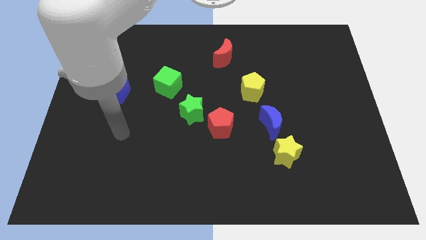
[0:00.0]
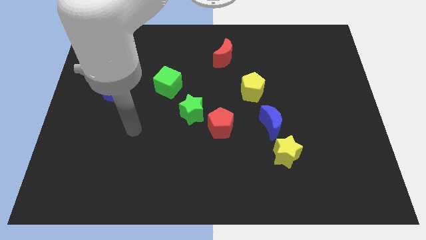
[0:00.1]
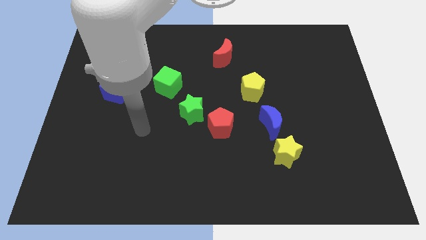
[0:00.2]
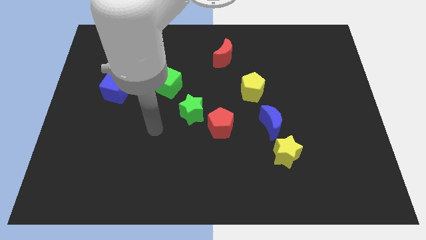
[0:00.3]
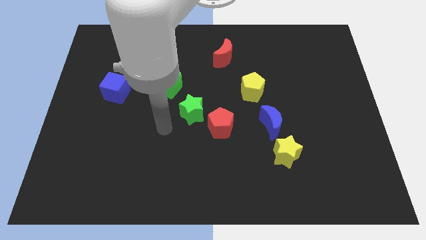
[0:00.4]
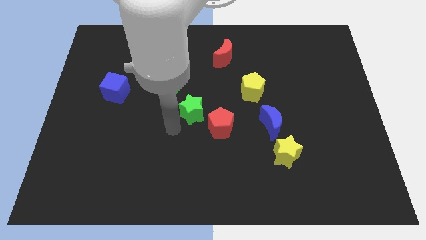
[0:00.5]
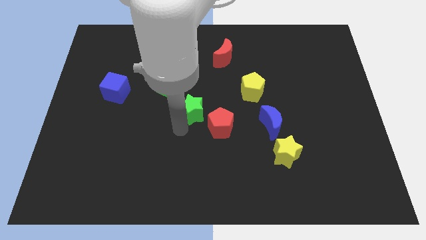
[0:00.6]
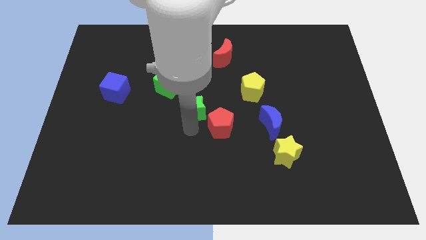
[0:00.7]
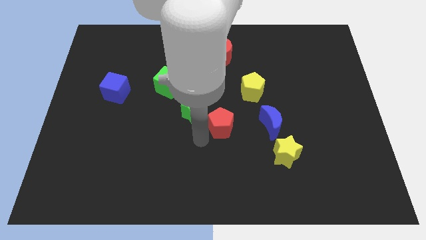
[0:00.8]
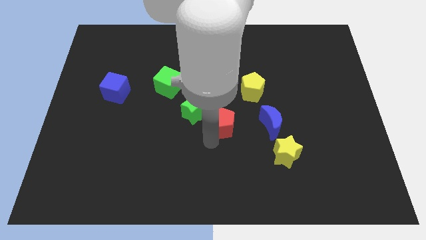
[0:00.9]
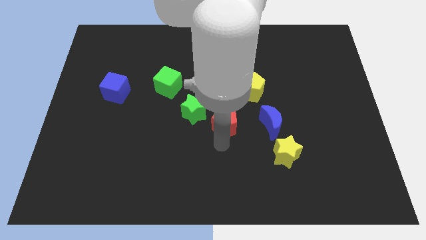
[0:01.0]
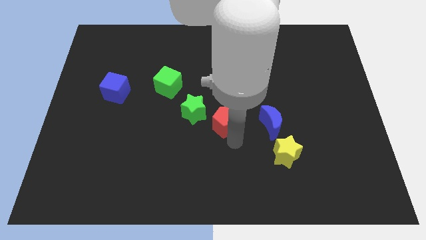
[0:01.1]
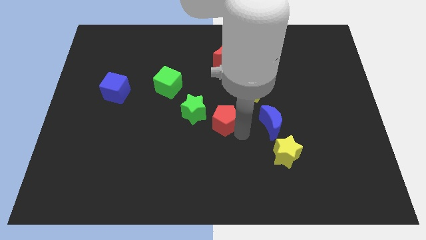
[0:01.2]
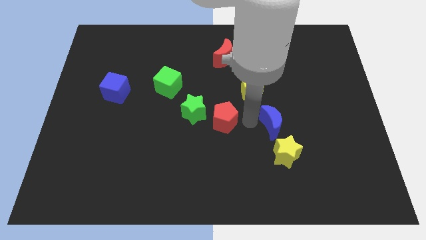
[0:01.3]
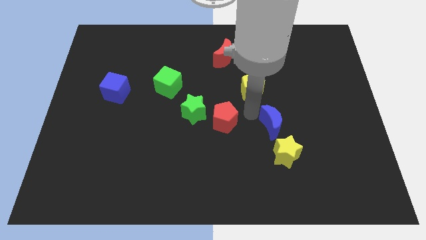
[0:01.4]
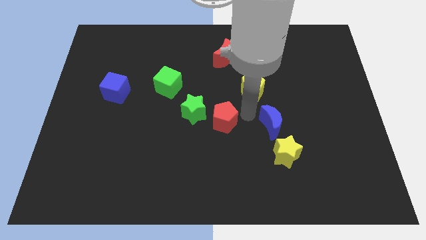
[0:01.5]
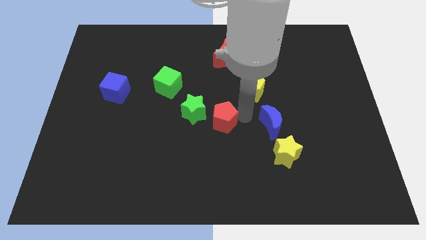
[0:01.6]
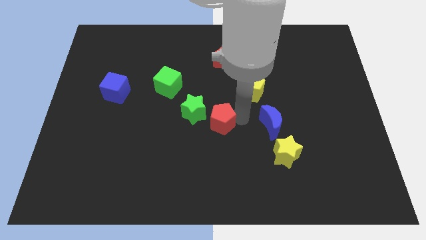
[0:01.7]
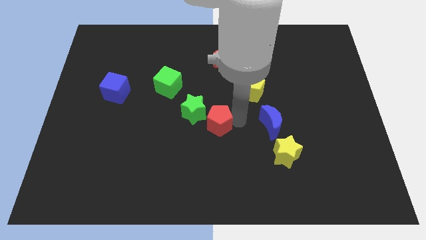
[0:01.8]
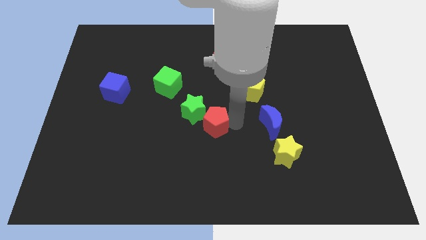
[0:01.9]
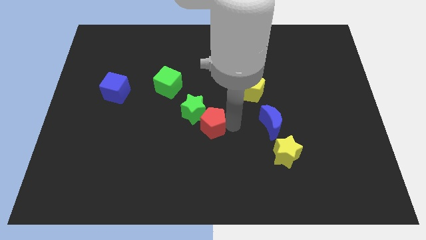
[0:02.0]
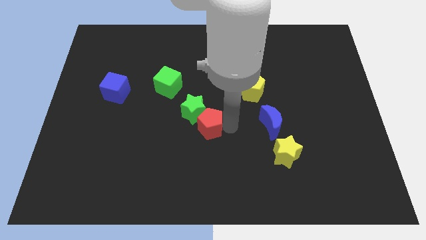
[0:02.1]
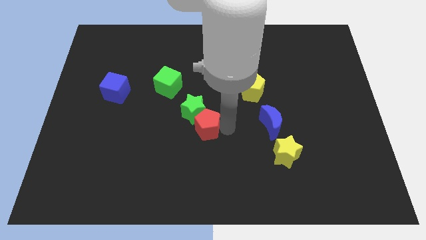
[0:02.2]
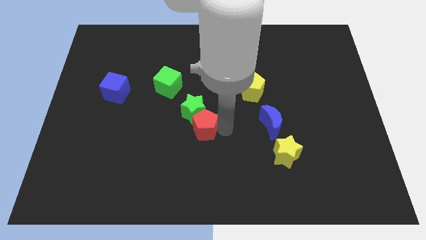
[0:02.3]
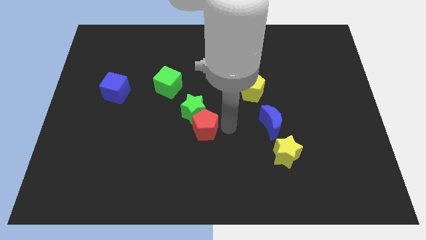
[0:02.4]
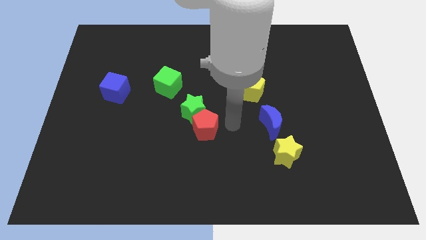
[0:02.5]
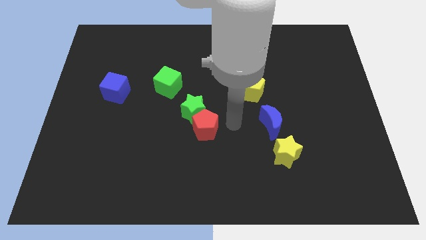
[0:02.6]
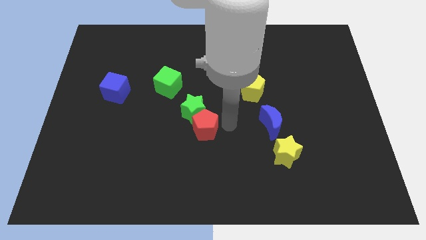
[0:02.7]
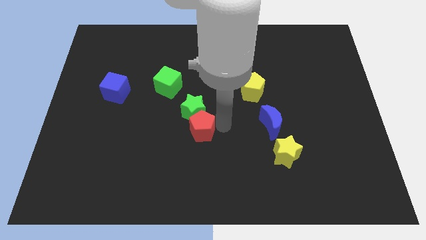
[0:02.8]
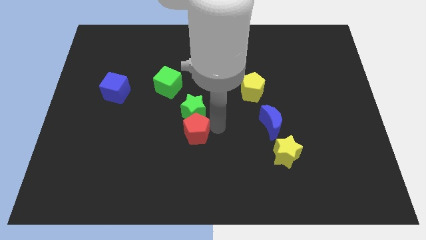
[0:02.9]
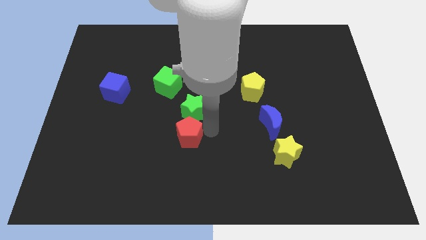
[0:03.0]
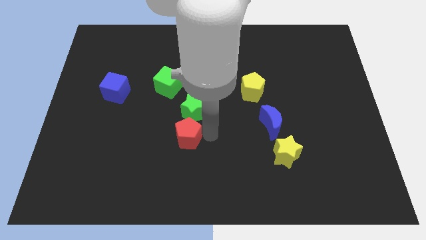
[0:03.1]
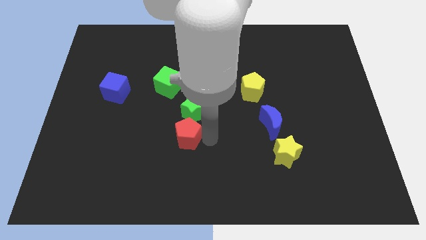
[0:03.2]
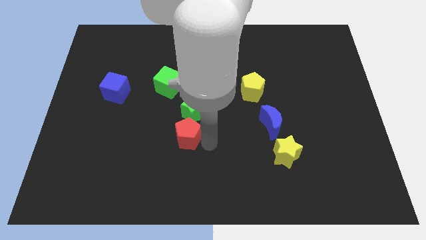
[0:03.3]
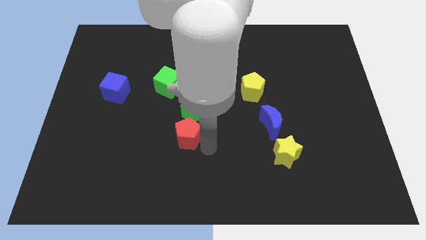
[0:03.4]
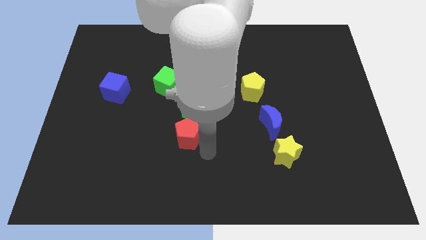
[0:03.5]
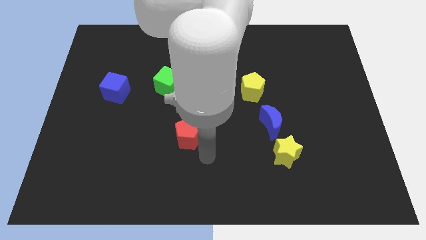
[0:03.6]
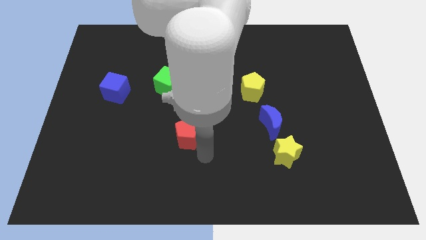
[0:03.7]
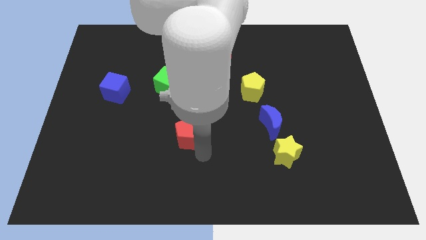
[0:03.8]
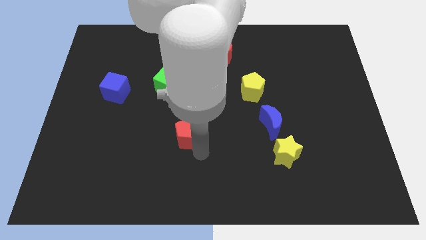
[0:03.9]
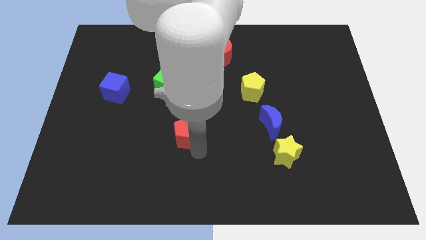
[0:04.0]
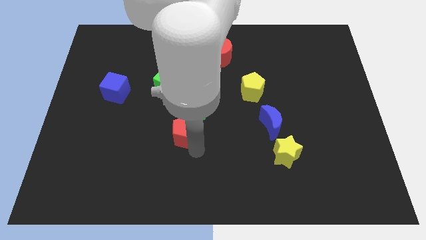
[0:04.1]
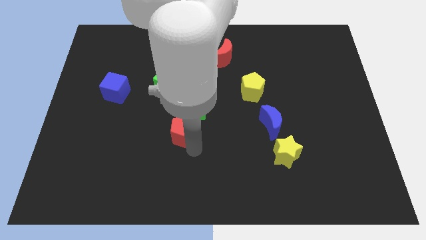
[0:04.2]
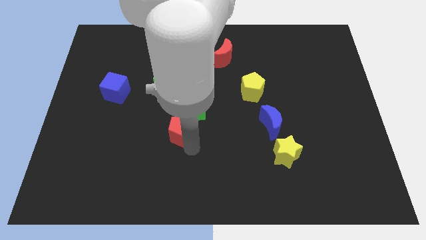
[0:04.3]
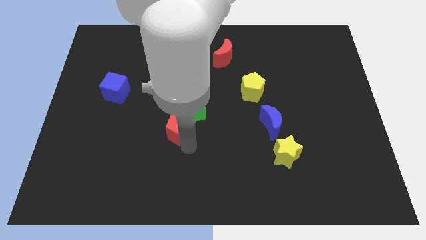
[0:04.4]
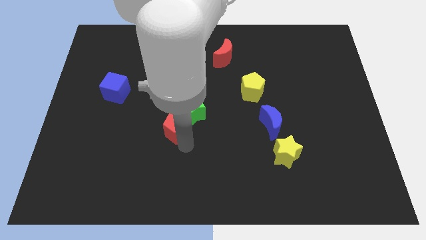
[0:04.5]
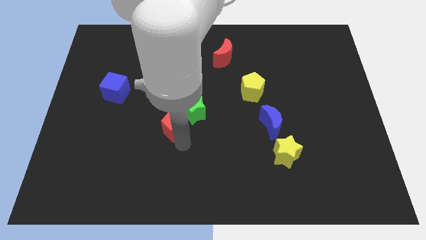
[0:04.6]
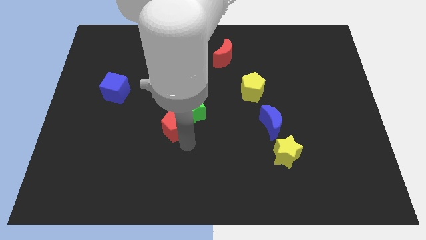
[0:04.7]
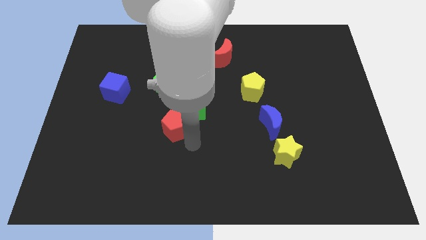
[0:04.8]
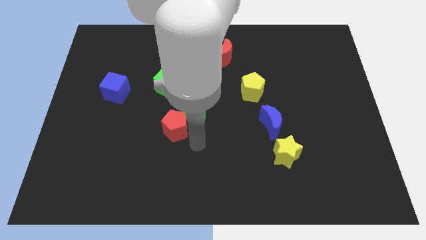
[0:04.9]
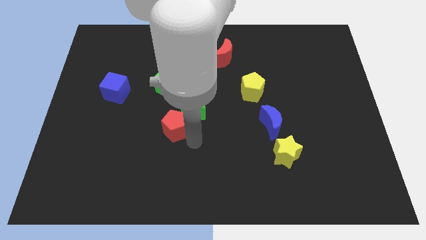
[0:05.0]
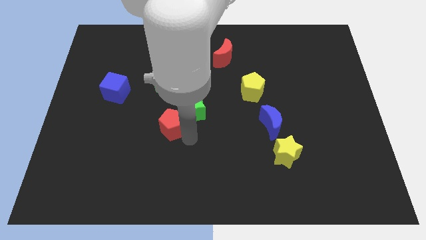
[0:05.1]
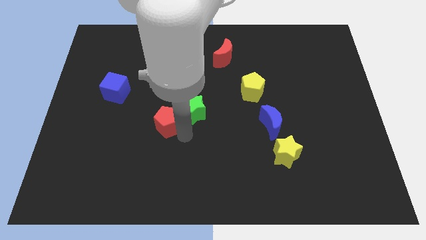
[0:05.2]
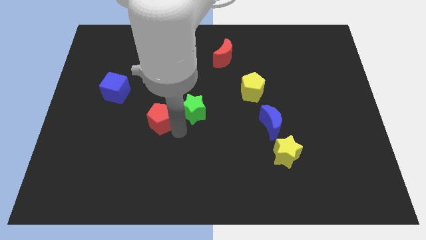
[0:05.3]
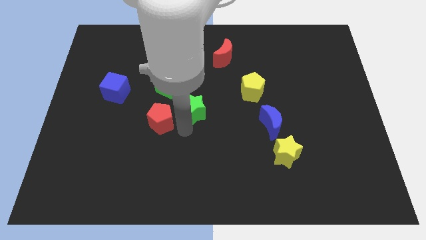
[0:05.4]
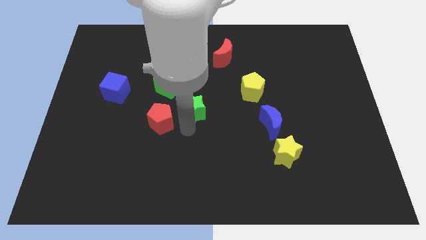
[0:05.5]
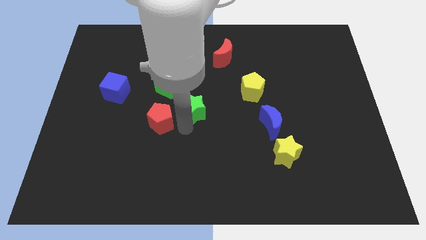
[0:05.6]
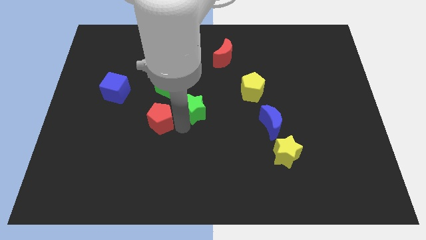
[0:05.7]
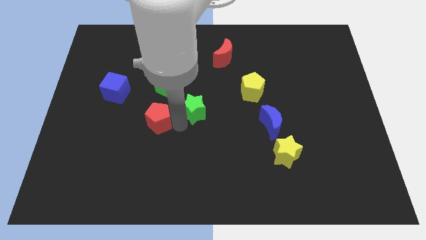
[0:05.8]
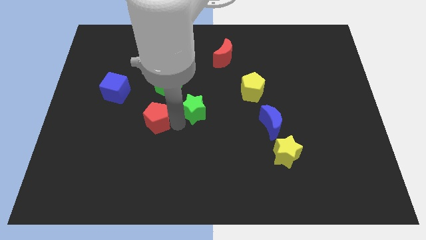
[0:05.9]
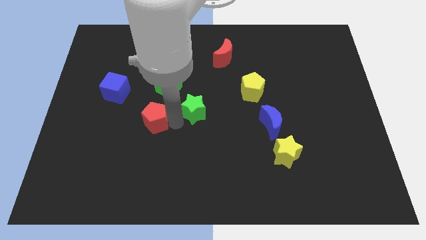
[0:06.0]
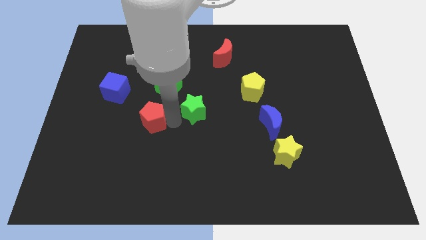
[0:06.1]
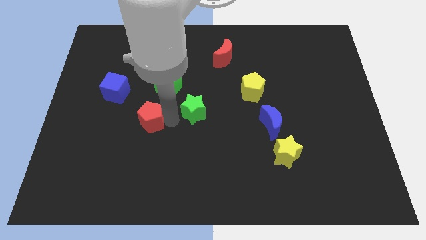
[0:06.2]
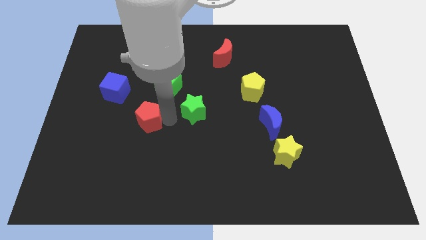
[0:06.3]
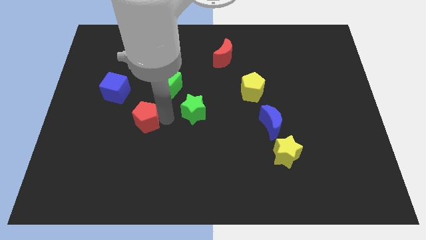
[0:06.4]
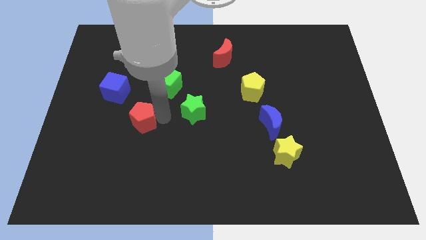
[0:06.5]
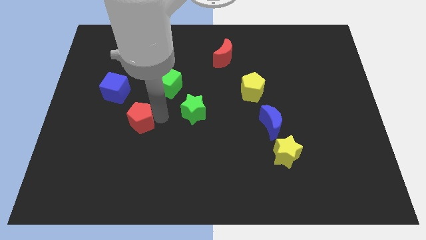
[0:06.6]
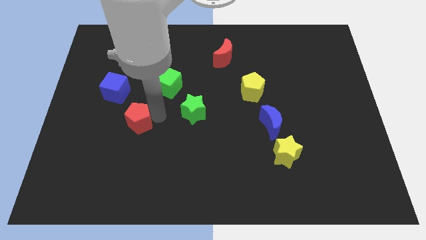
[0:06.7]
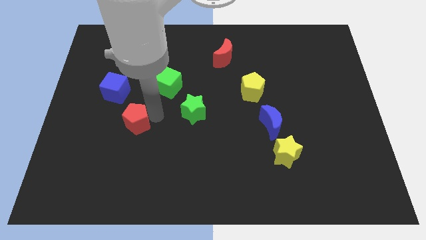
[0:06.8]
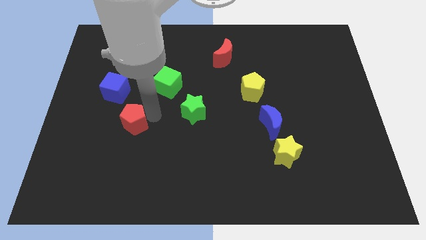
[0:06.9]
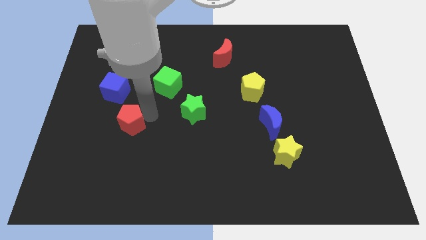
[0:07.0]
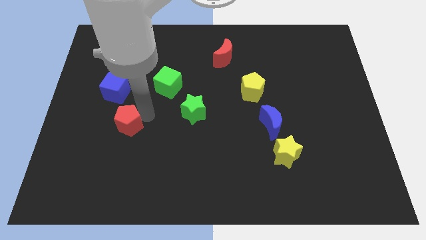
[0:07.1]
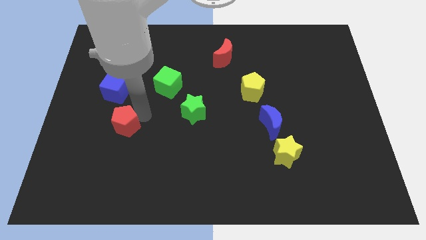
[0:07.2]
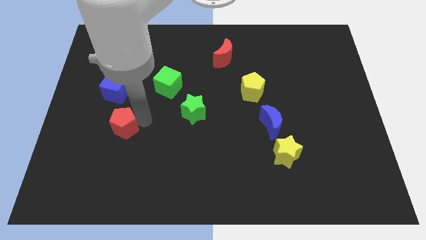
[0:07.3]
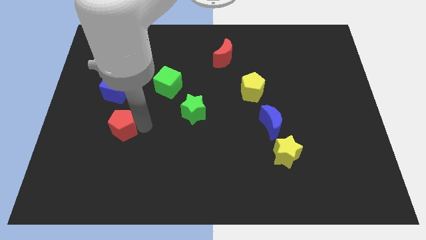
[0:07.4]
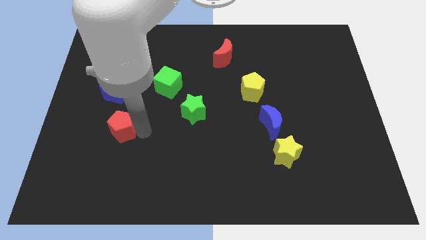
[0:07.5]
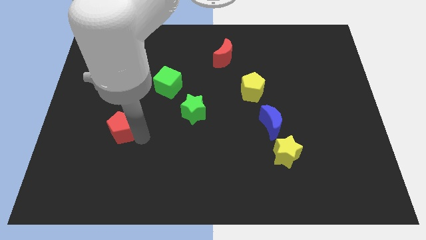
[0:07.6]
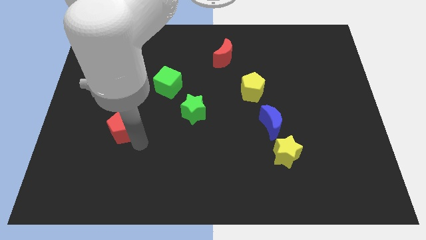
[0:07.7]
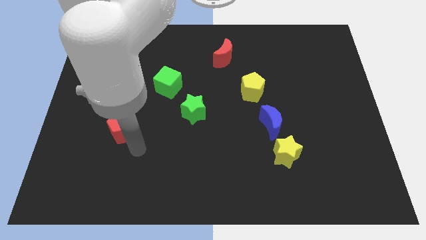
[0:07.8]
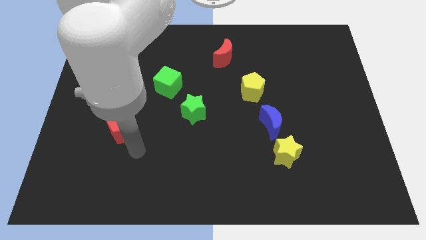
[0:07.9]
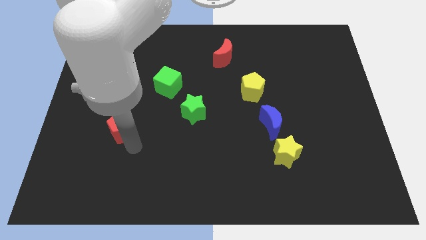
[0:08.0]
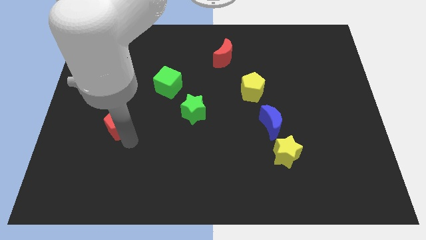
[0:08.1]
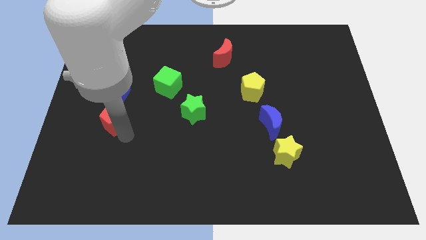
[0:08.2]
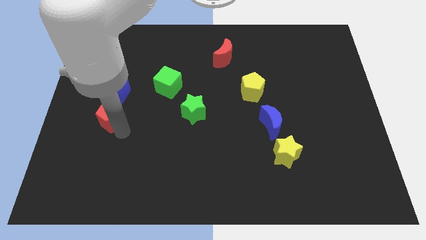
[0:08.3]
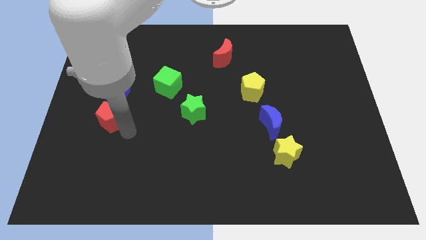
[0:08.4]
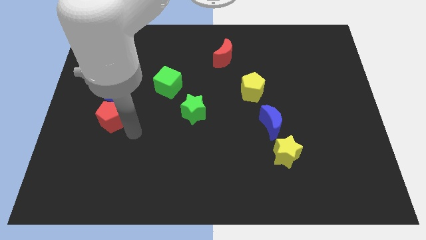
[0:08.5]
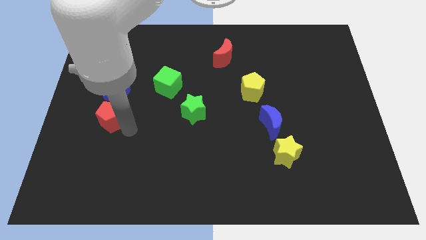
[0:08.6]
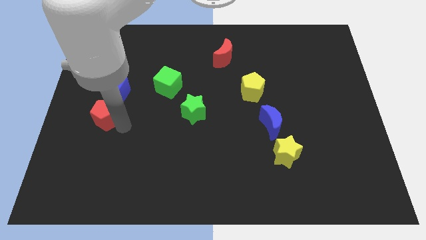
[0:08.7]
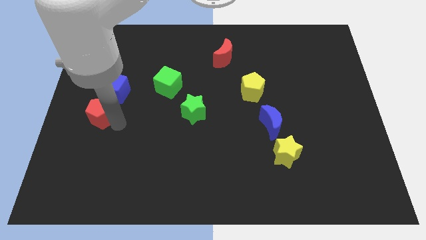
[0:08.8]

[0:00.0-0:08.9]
push the red pentagon to the left side
